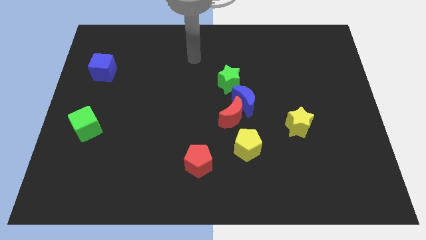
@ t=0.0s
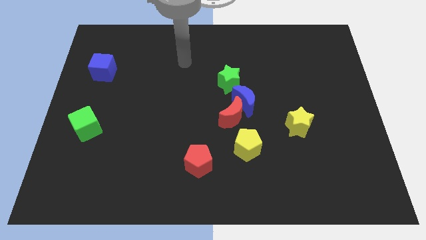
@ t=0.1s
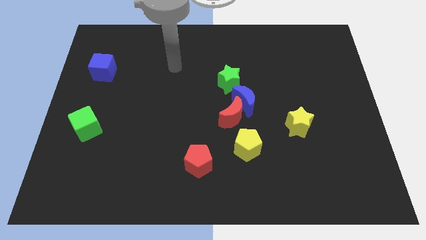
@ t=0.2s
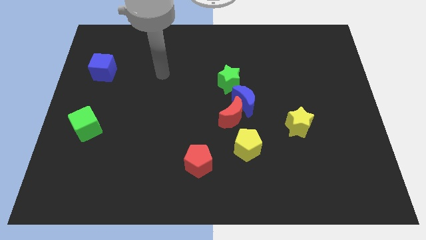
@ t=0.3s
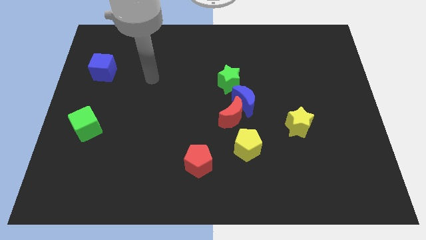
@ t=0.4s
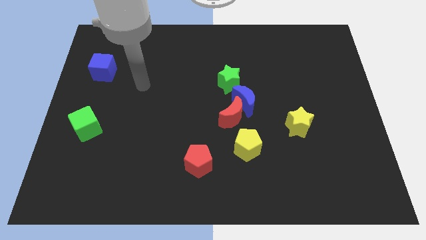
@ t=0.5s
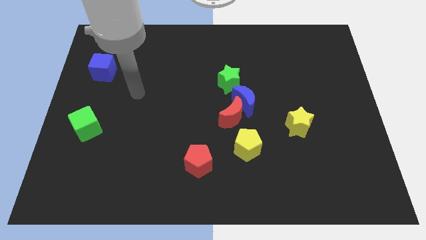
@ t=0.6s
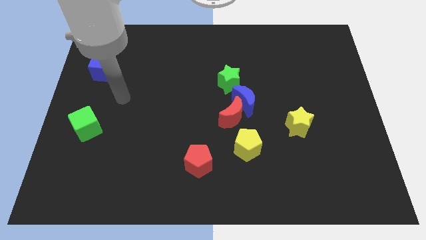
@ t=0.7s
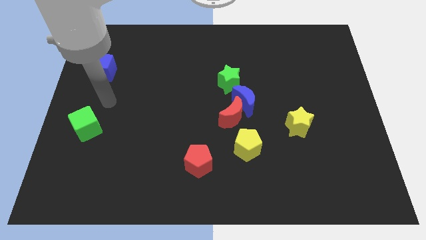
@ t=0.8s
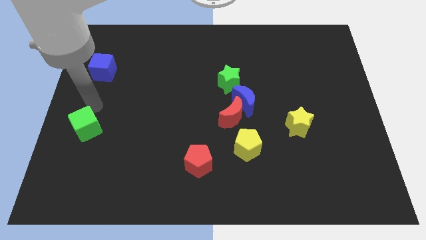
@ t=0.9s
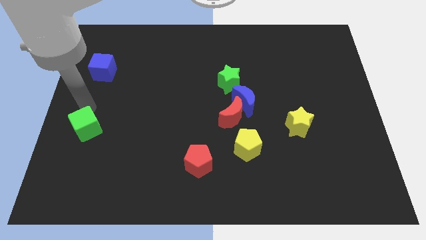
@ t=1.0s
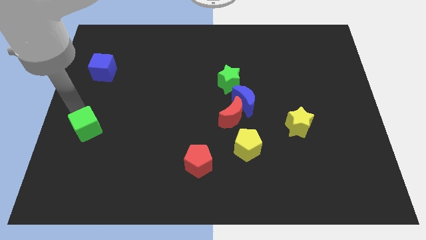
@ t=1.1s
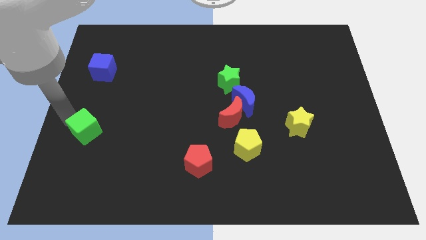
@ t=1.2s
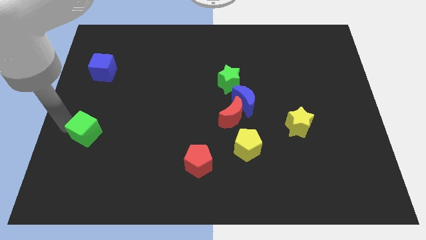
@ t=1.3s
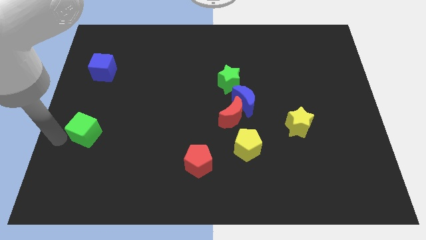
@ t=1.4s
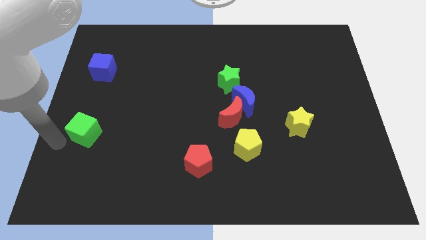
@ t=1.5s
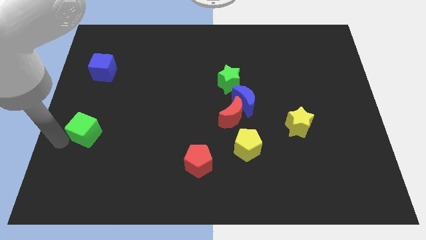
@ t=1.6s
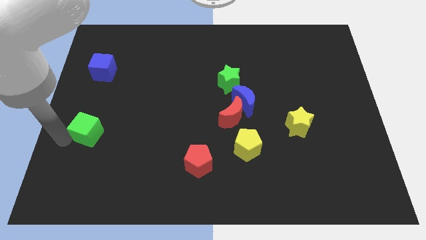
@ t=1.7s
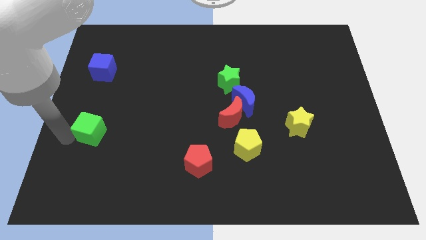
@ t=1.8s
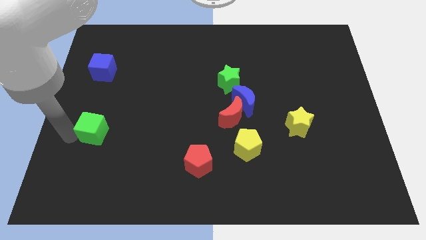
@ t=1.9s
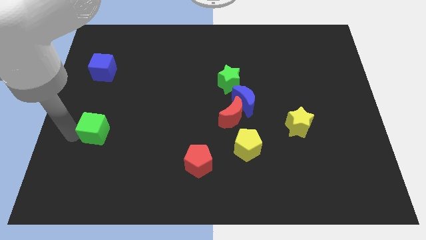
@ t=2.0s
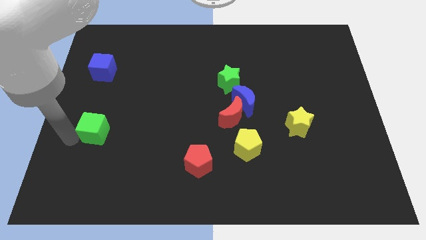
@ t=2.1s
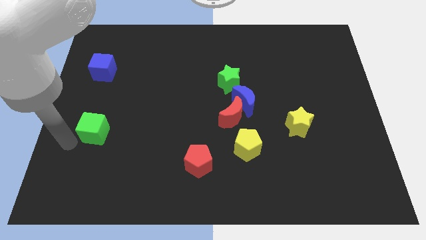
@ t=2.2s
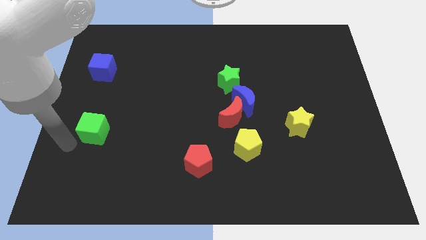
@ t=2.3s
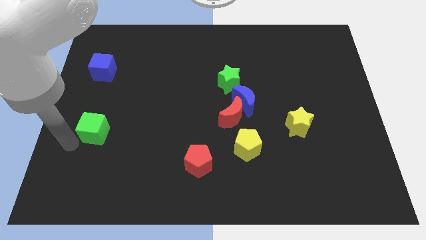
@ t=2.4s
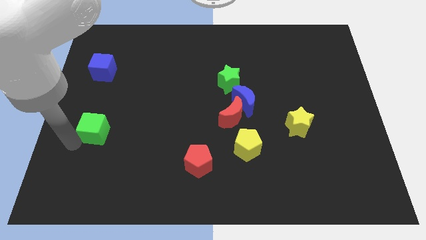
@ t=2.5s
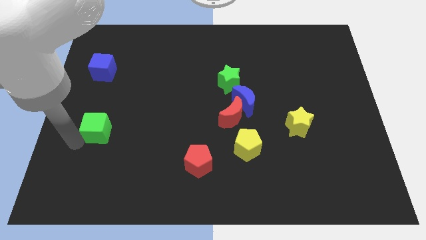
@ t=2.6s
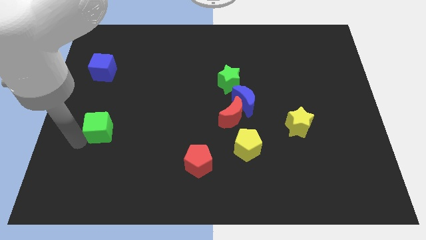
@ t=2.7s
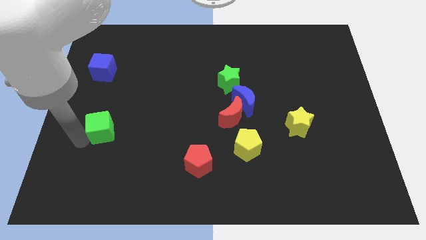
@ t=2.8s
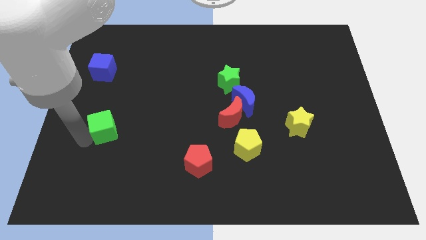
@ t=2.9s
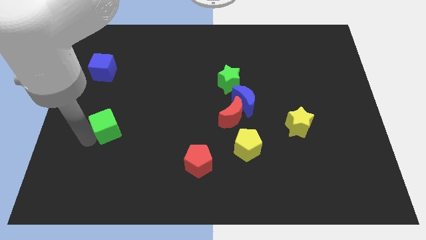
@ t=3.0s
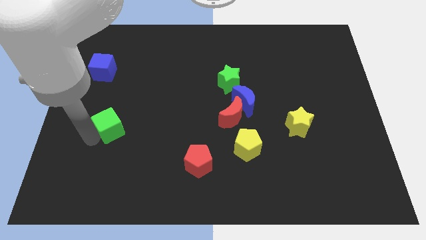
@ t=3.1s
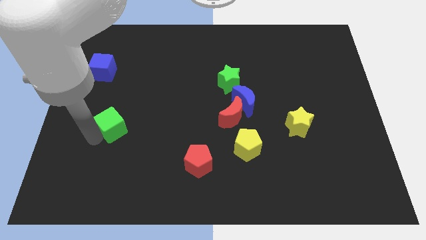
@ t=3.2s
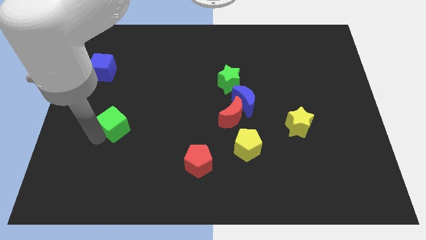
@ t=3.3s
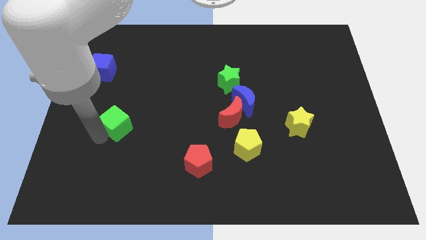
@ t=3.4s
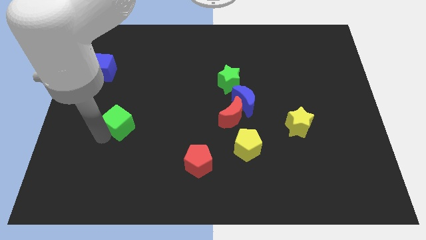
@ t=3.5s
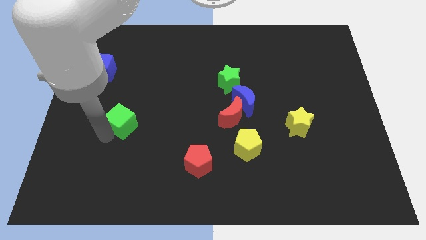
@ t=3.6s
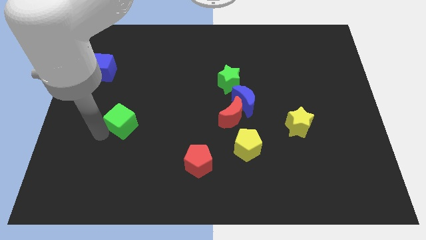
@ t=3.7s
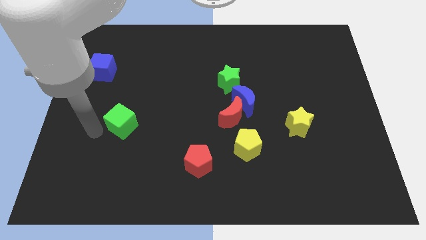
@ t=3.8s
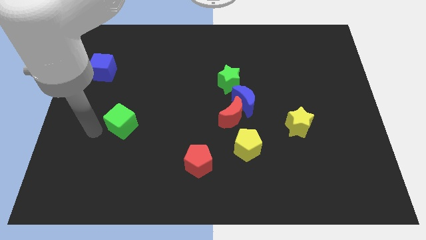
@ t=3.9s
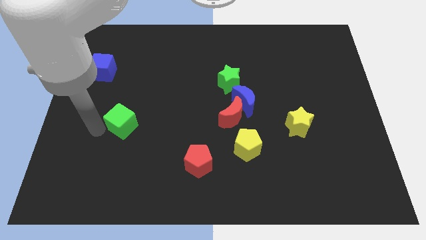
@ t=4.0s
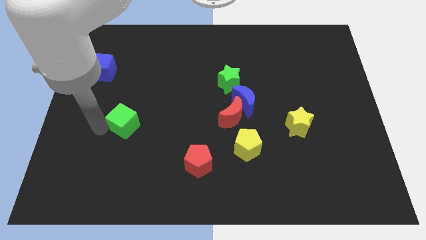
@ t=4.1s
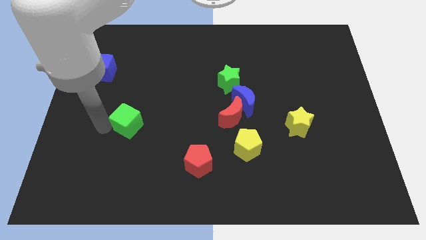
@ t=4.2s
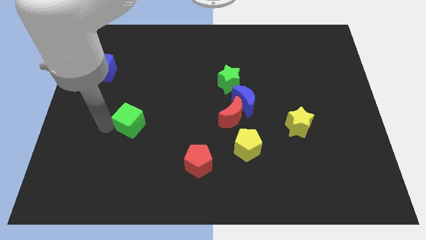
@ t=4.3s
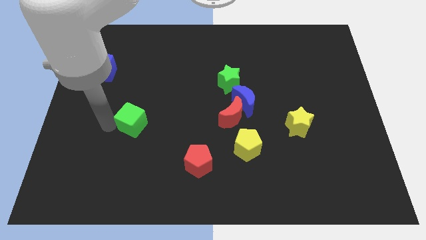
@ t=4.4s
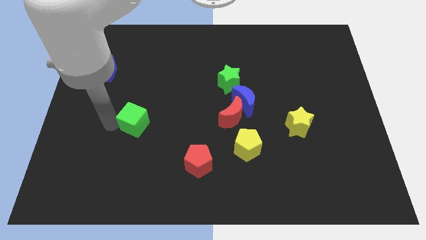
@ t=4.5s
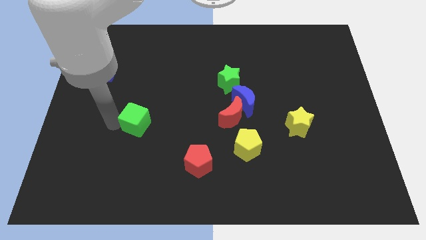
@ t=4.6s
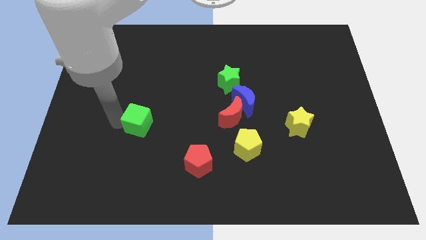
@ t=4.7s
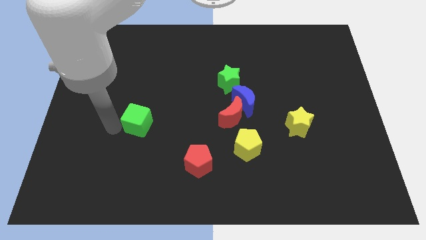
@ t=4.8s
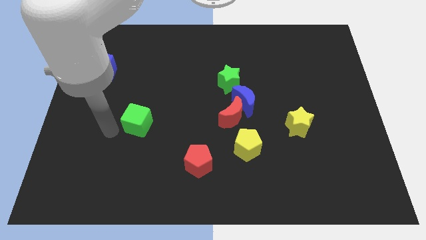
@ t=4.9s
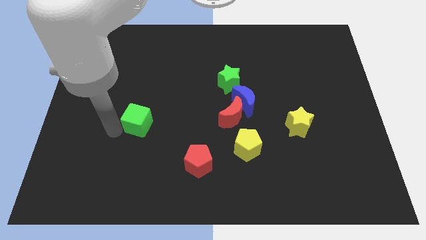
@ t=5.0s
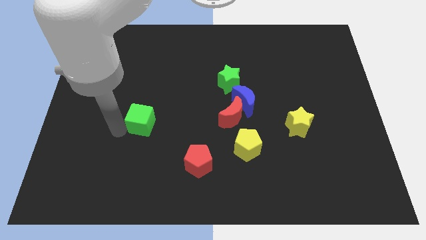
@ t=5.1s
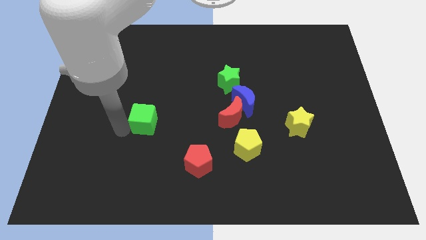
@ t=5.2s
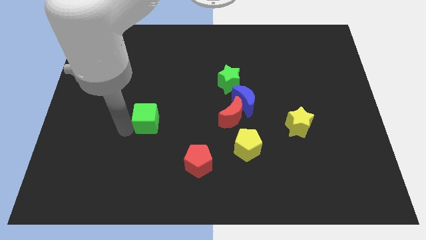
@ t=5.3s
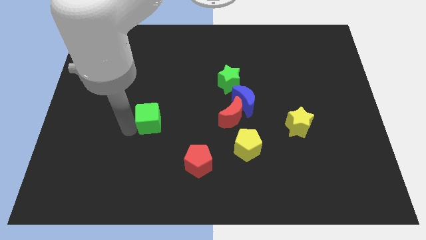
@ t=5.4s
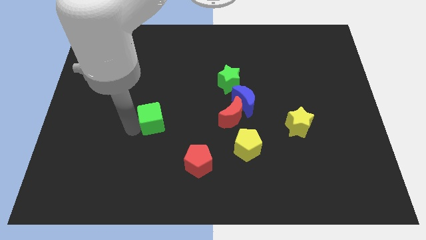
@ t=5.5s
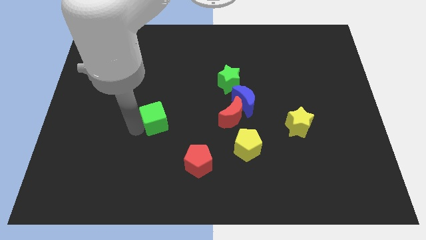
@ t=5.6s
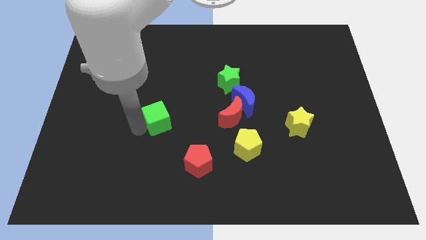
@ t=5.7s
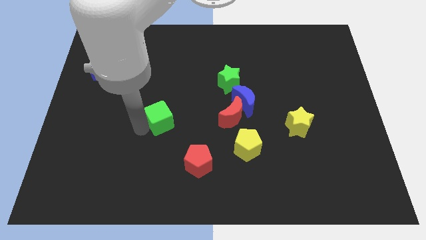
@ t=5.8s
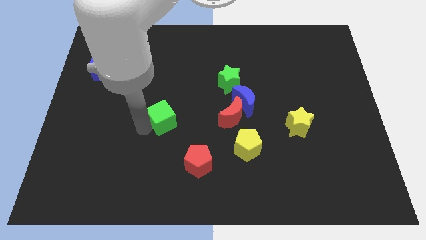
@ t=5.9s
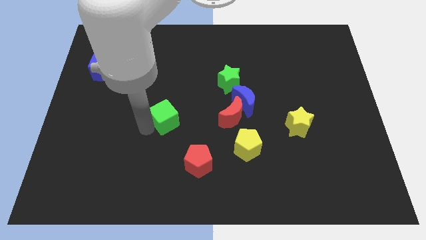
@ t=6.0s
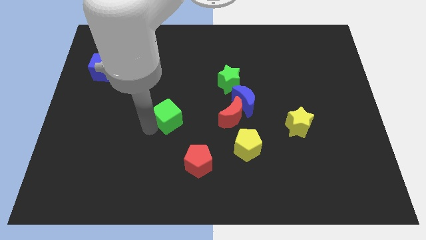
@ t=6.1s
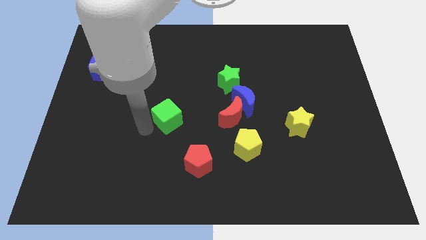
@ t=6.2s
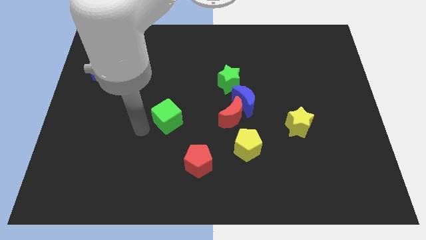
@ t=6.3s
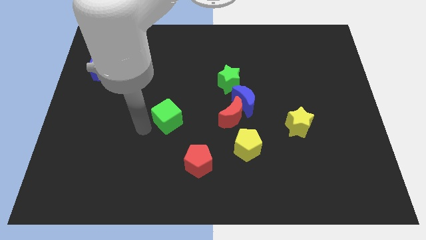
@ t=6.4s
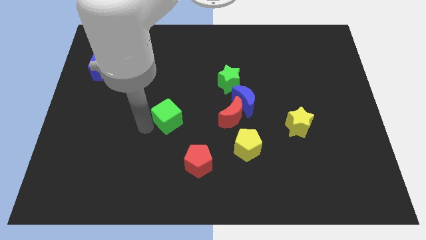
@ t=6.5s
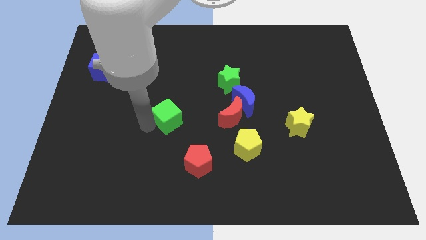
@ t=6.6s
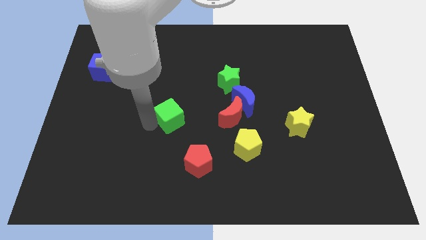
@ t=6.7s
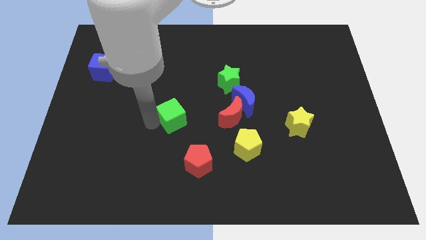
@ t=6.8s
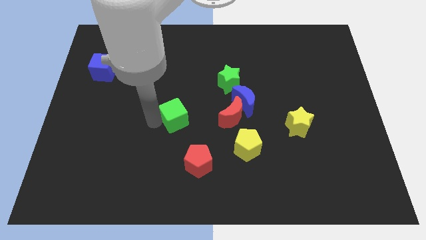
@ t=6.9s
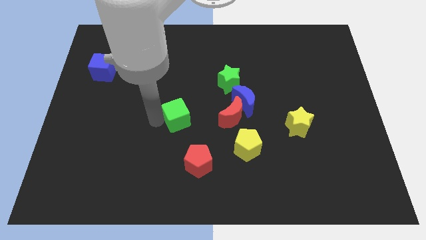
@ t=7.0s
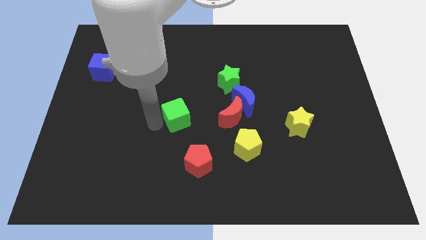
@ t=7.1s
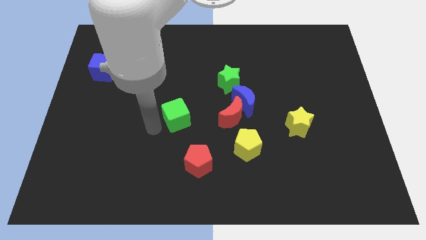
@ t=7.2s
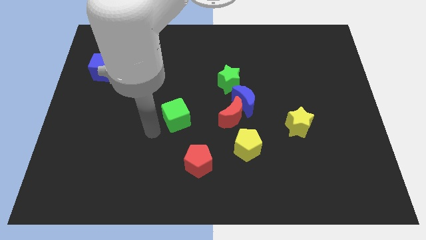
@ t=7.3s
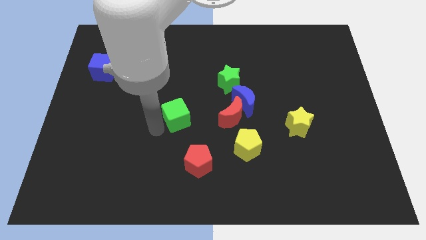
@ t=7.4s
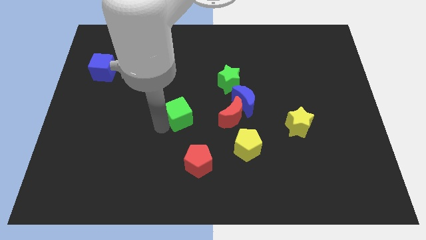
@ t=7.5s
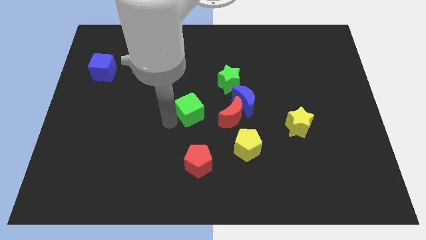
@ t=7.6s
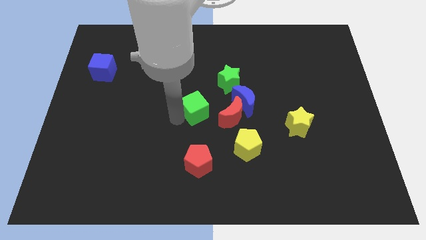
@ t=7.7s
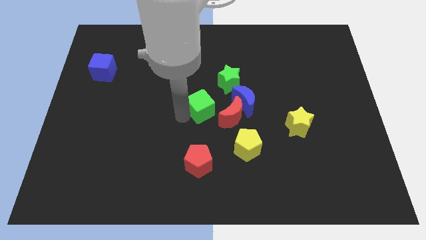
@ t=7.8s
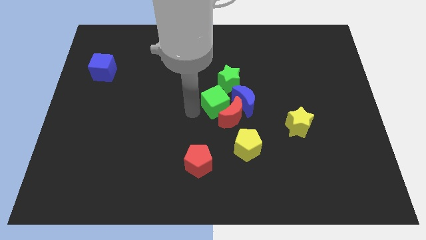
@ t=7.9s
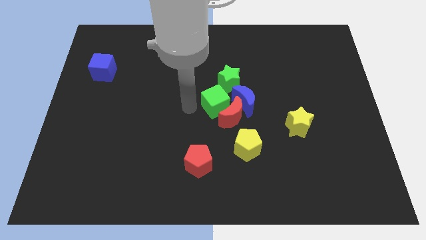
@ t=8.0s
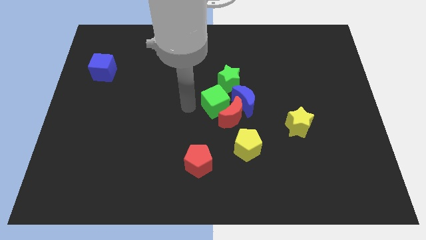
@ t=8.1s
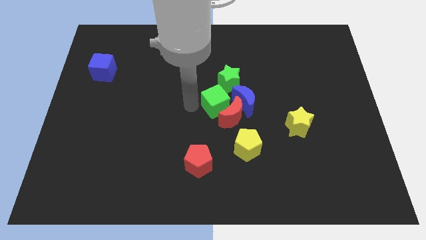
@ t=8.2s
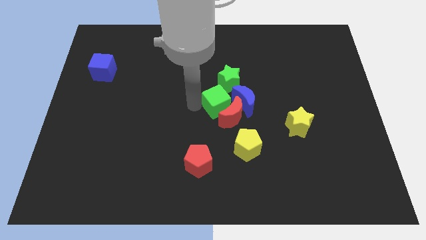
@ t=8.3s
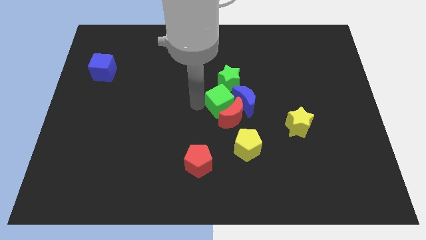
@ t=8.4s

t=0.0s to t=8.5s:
put the green cube next to the blue moon
